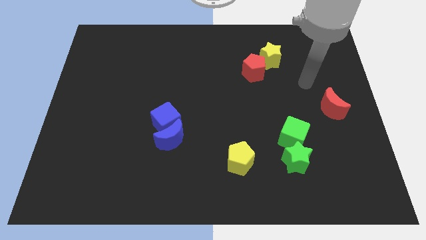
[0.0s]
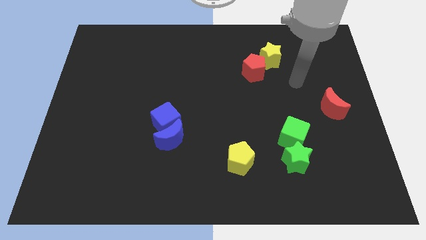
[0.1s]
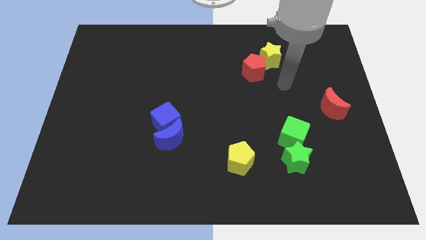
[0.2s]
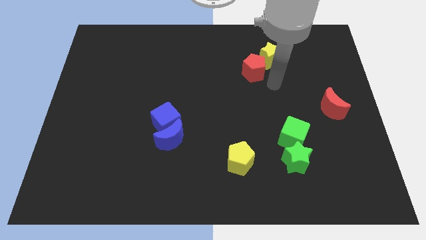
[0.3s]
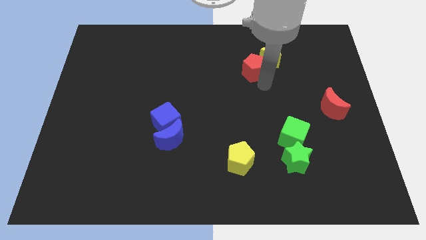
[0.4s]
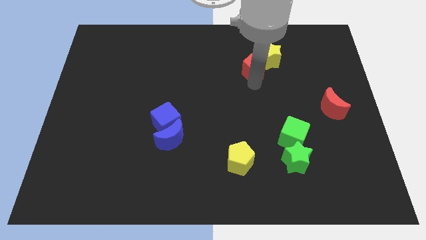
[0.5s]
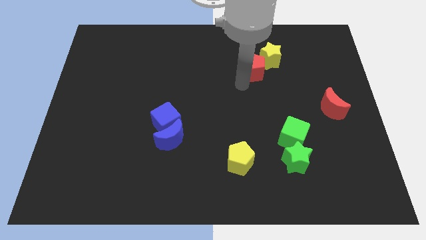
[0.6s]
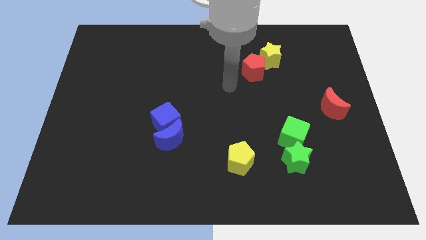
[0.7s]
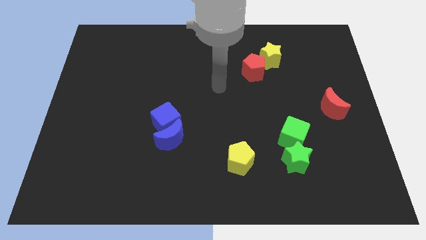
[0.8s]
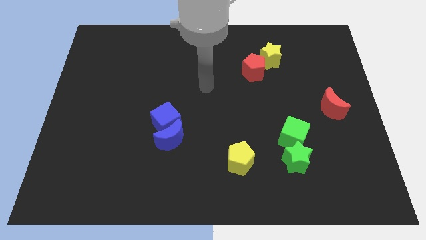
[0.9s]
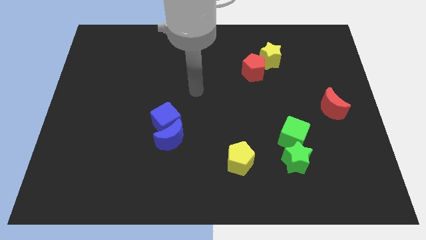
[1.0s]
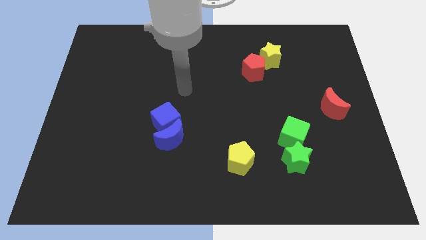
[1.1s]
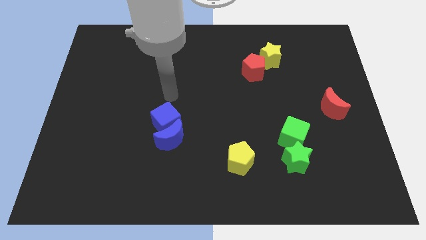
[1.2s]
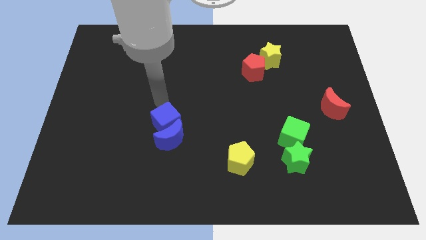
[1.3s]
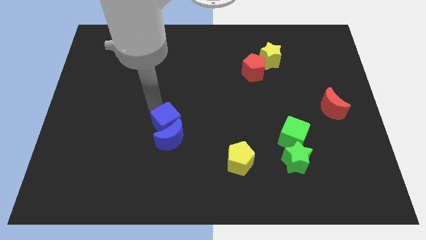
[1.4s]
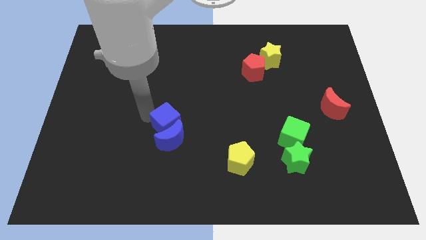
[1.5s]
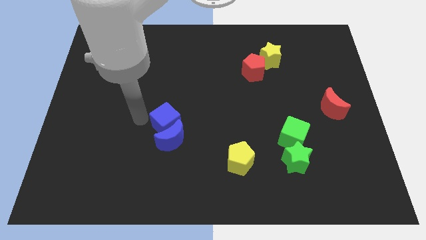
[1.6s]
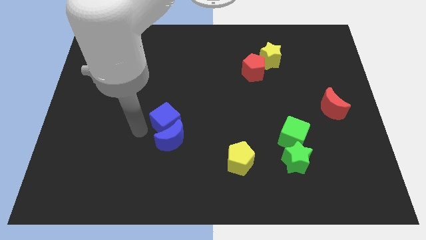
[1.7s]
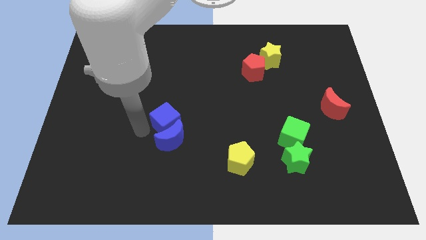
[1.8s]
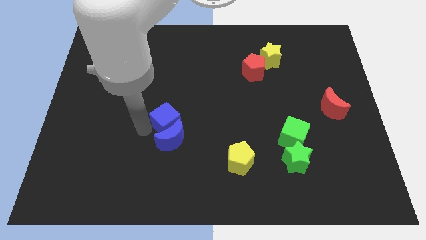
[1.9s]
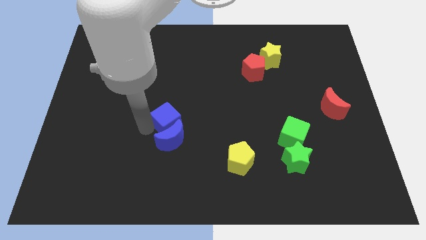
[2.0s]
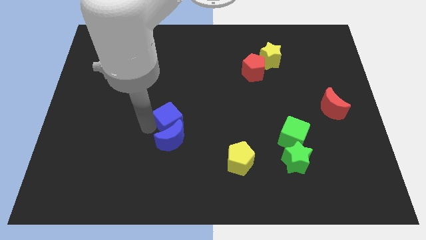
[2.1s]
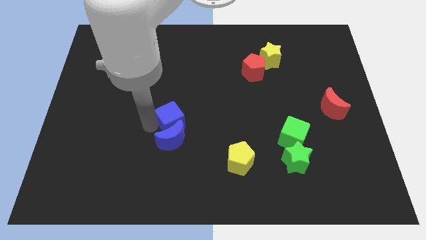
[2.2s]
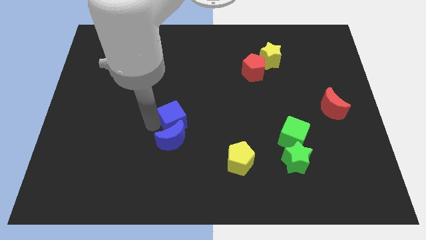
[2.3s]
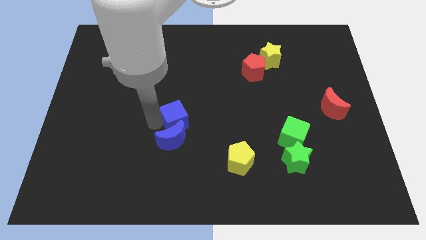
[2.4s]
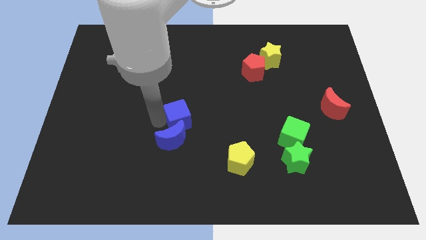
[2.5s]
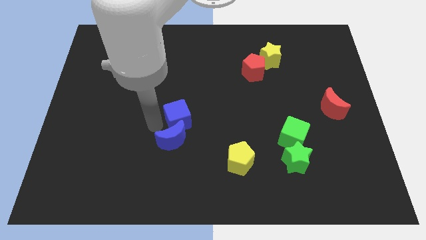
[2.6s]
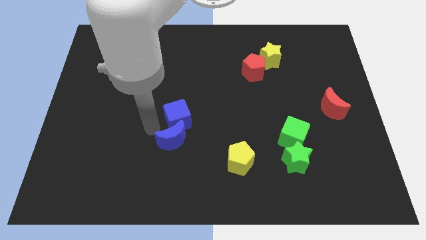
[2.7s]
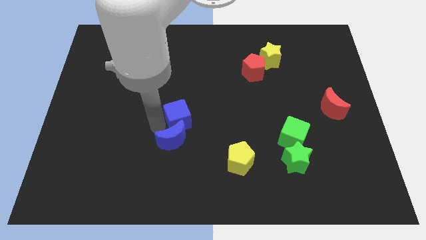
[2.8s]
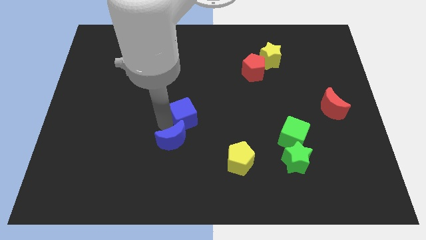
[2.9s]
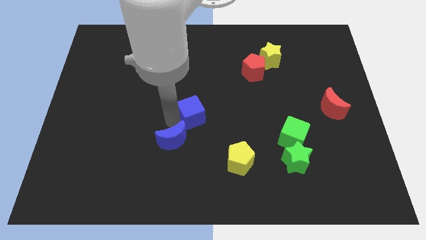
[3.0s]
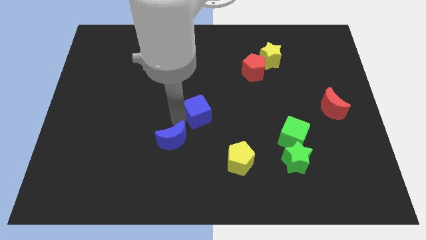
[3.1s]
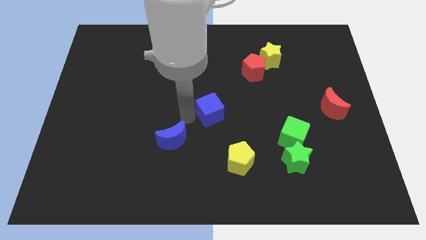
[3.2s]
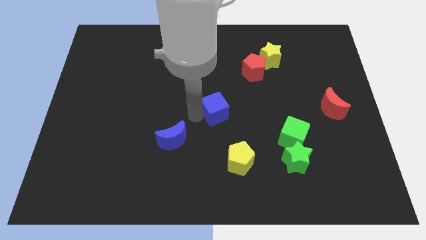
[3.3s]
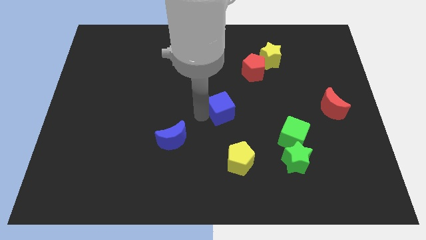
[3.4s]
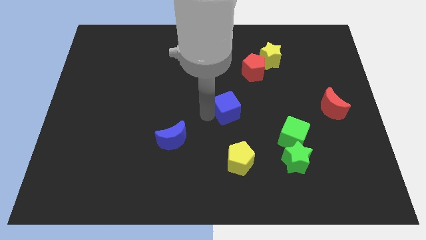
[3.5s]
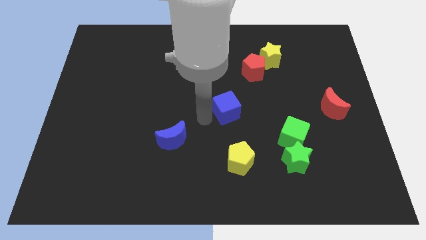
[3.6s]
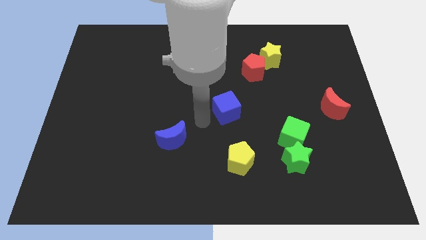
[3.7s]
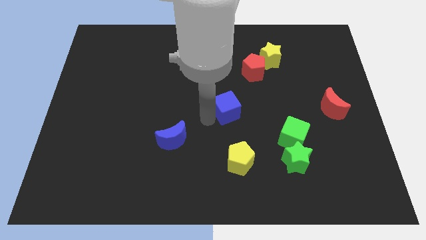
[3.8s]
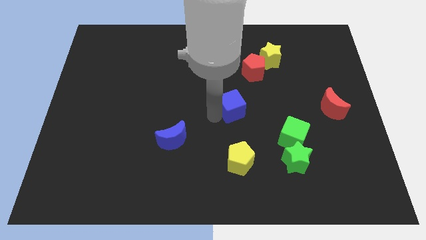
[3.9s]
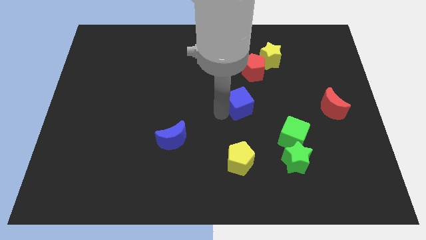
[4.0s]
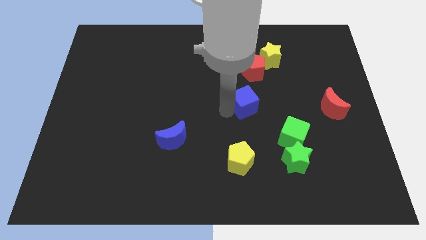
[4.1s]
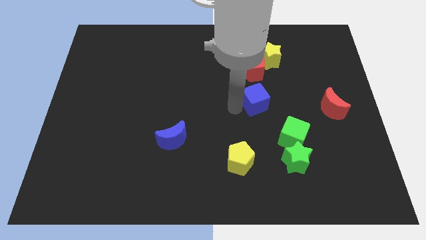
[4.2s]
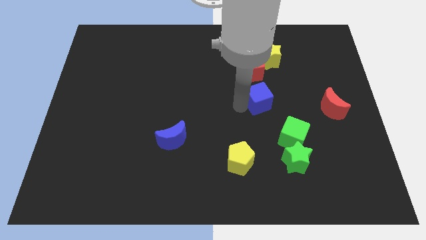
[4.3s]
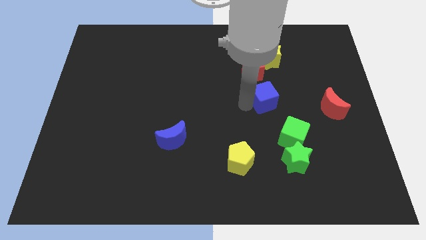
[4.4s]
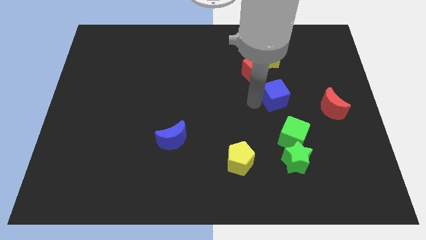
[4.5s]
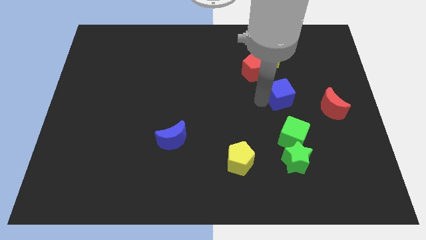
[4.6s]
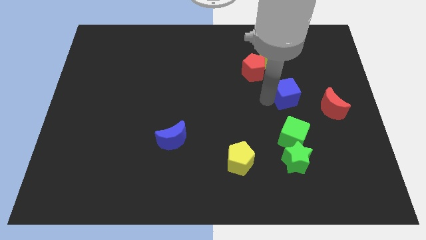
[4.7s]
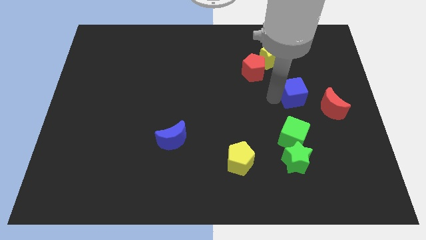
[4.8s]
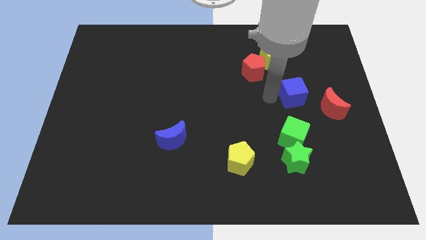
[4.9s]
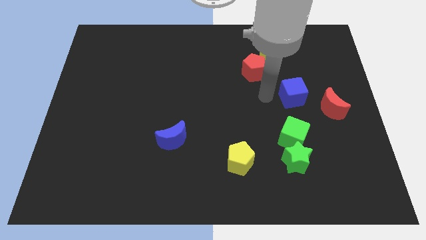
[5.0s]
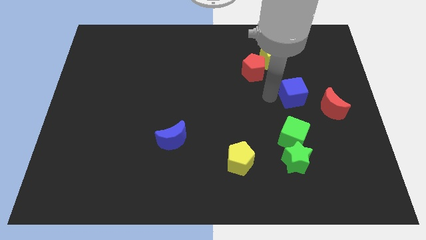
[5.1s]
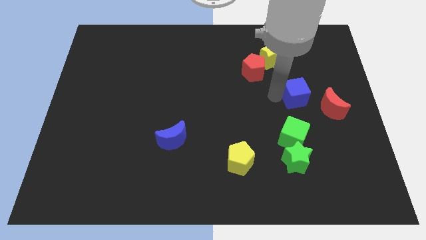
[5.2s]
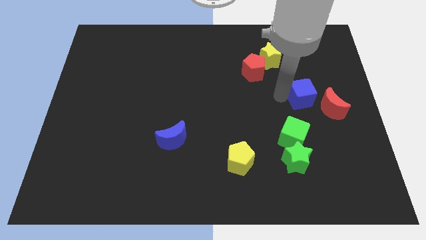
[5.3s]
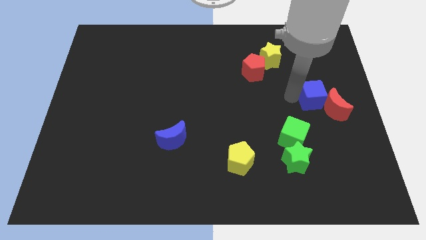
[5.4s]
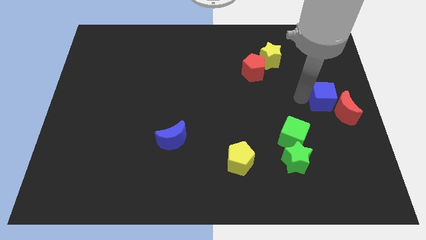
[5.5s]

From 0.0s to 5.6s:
move the blue cube to the right side of the board
